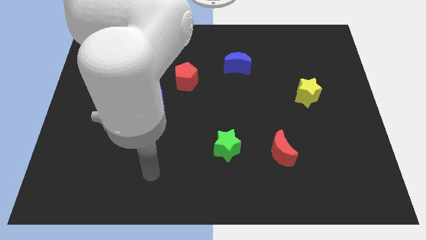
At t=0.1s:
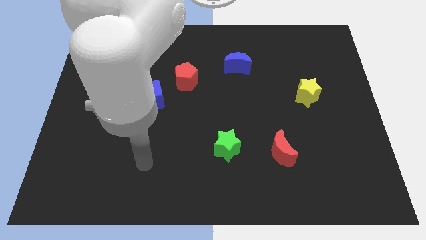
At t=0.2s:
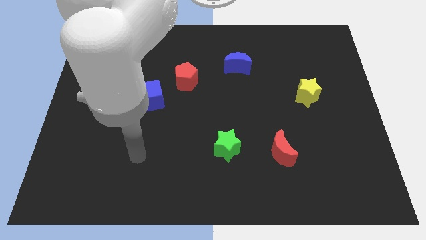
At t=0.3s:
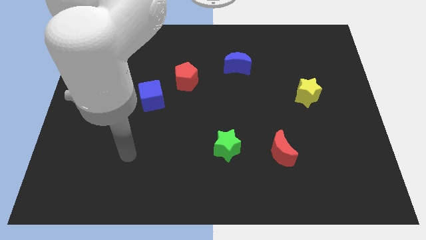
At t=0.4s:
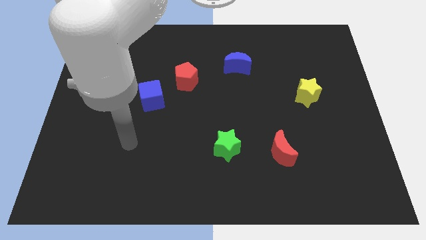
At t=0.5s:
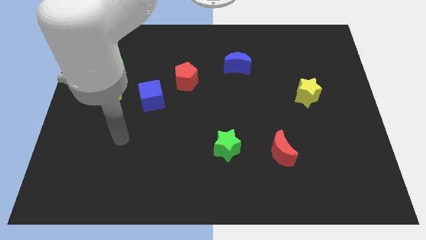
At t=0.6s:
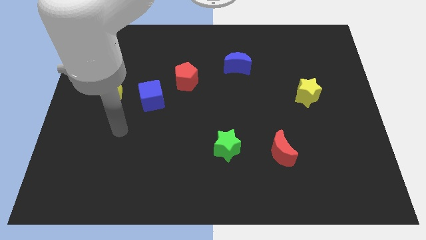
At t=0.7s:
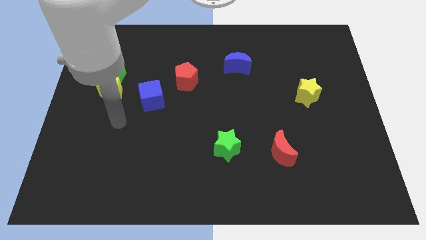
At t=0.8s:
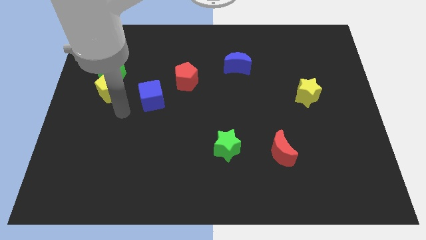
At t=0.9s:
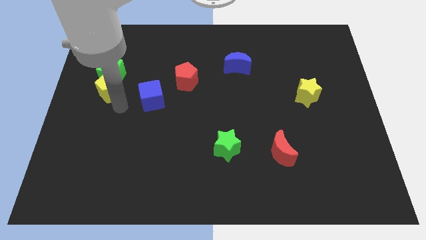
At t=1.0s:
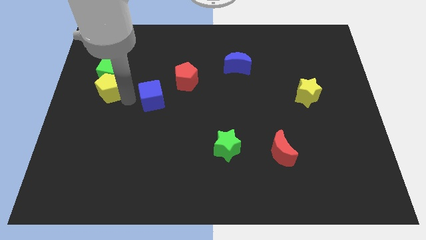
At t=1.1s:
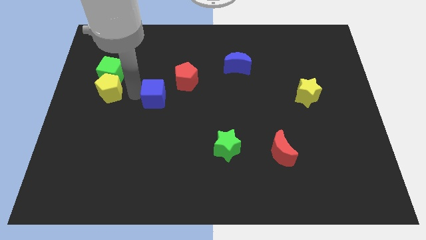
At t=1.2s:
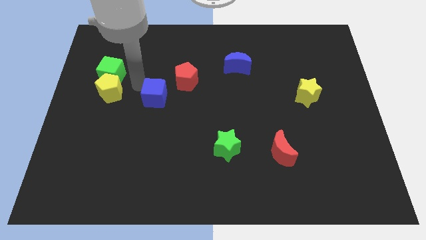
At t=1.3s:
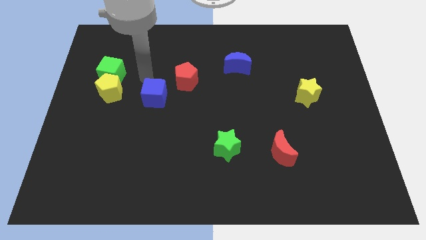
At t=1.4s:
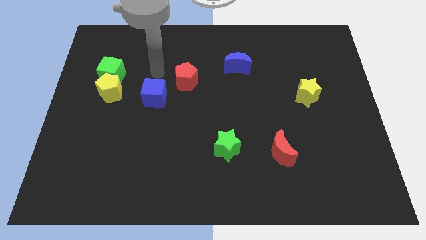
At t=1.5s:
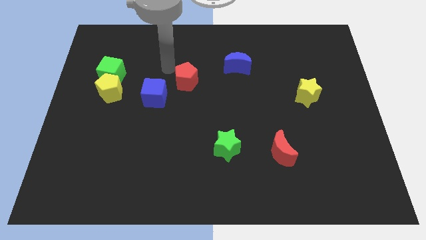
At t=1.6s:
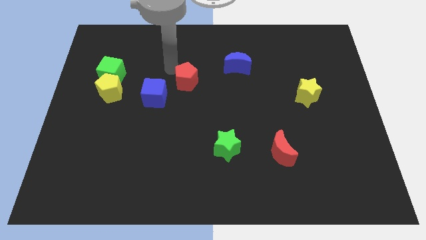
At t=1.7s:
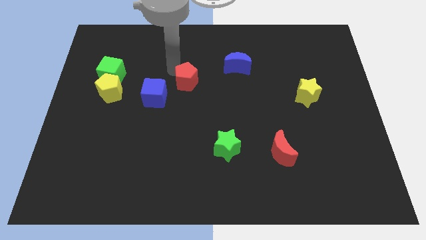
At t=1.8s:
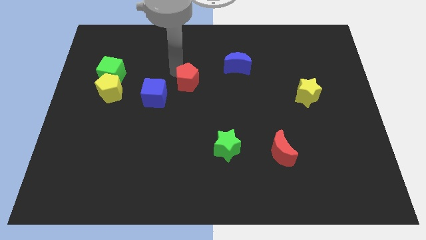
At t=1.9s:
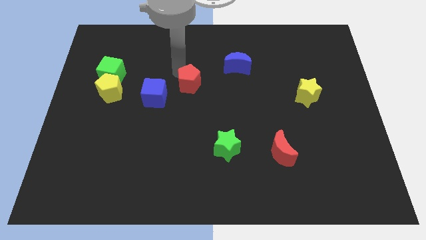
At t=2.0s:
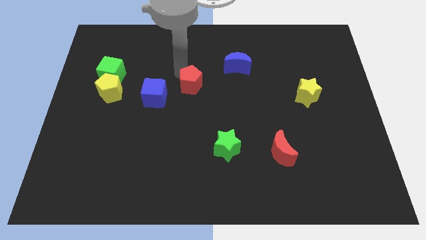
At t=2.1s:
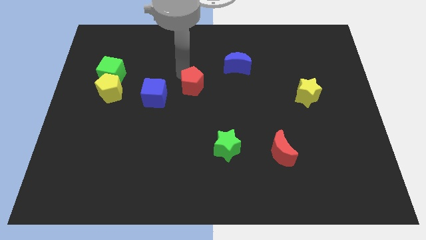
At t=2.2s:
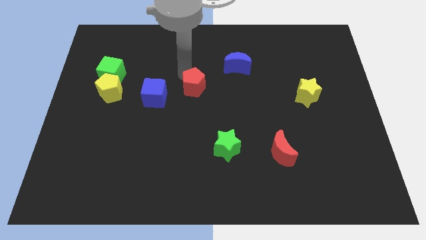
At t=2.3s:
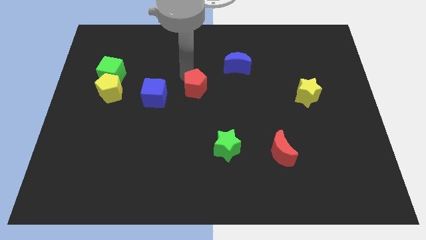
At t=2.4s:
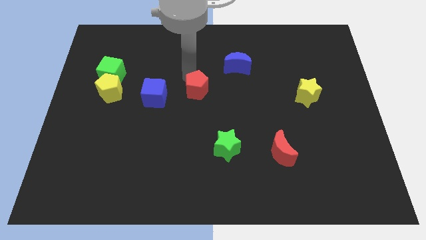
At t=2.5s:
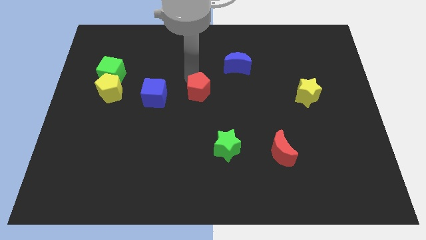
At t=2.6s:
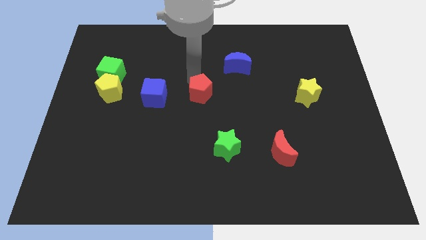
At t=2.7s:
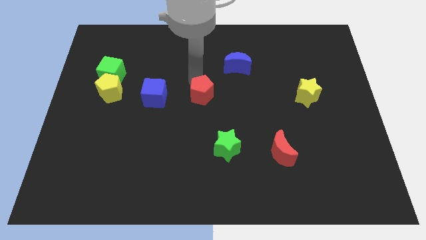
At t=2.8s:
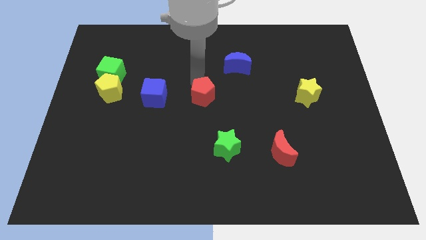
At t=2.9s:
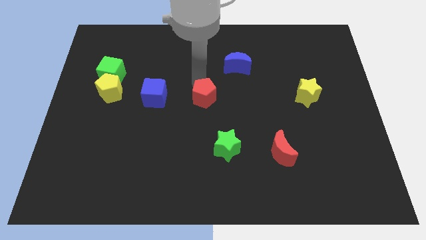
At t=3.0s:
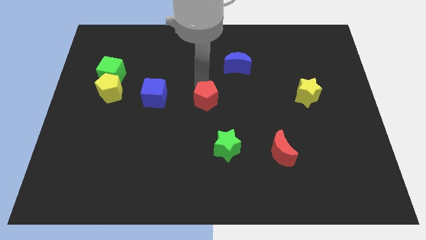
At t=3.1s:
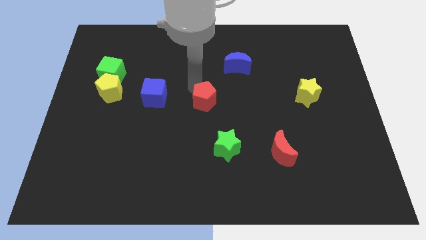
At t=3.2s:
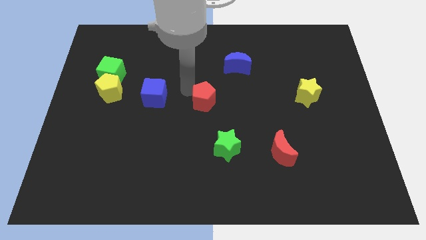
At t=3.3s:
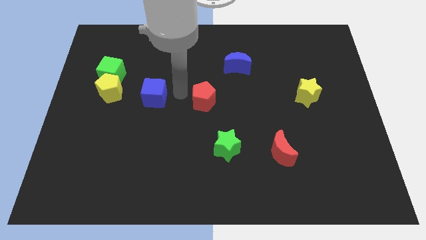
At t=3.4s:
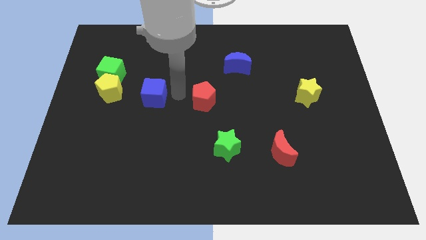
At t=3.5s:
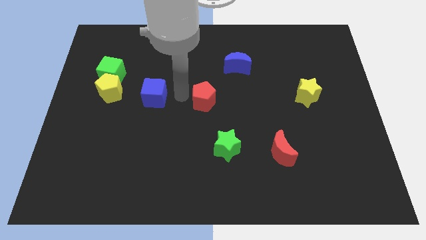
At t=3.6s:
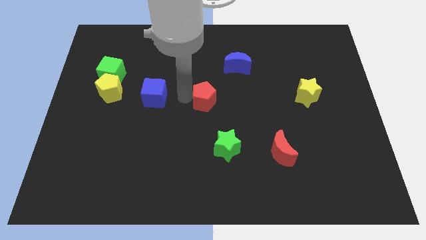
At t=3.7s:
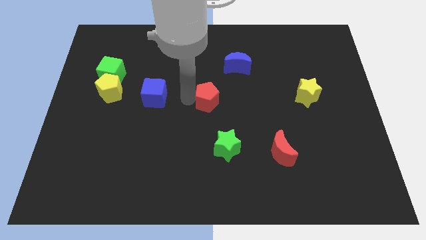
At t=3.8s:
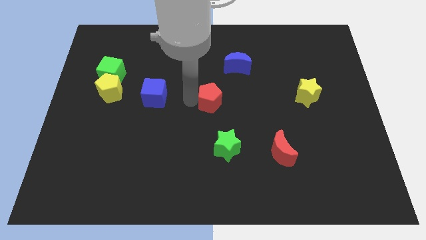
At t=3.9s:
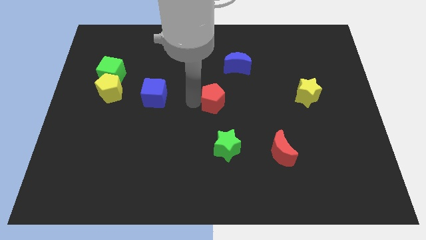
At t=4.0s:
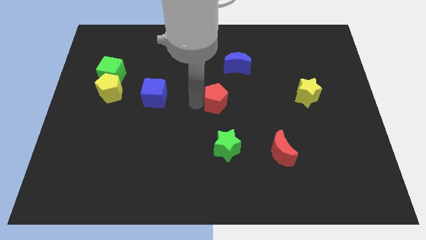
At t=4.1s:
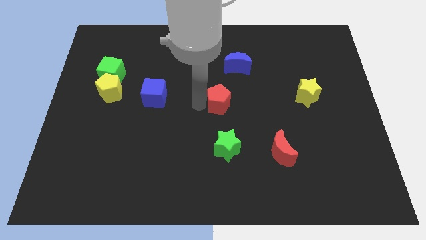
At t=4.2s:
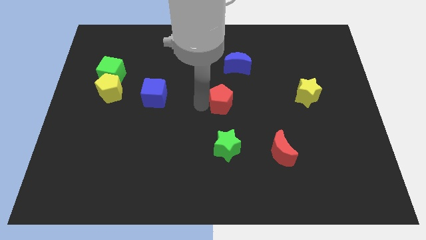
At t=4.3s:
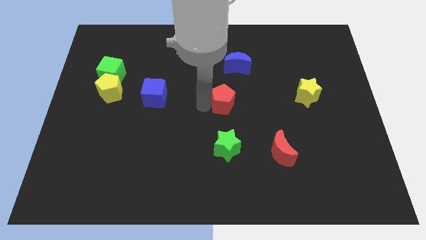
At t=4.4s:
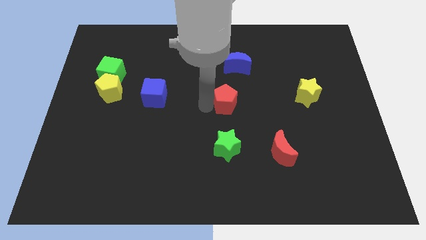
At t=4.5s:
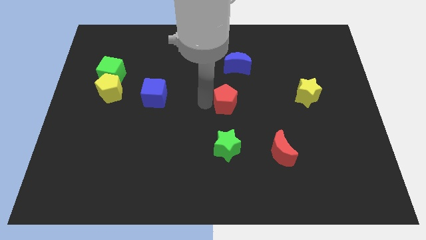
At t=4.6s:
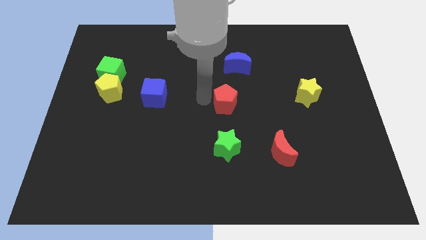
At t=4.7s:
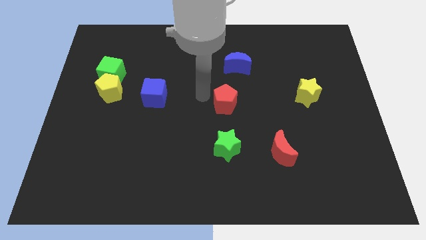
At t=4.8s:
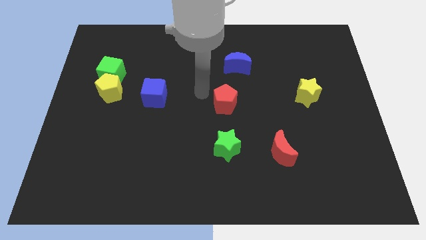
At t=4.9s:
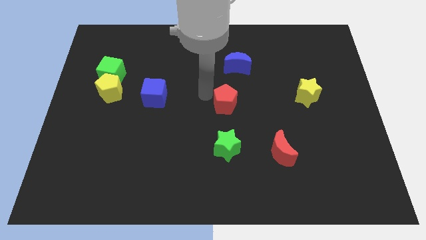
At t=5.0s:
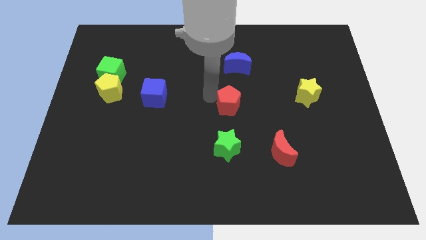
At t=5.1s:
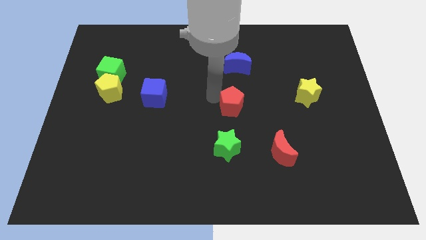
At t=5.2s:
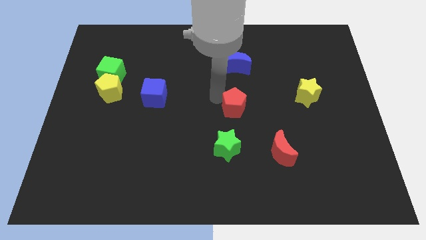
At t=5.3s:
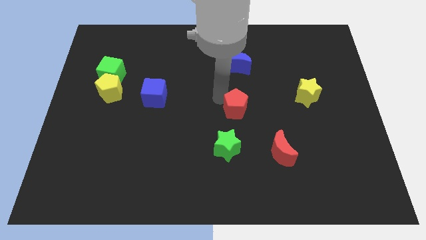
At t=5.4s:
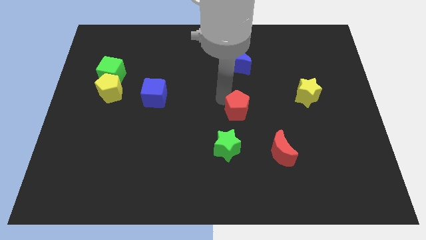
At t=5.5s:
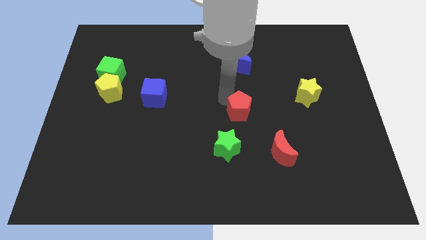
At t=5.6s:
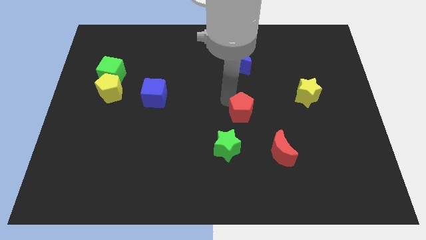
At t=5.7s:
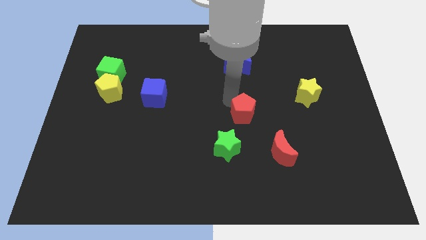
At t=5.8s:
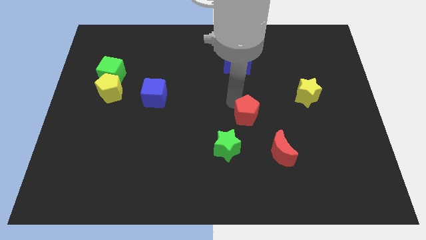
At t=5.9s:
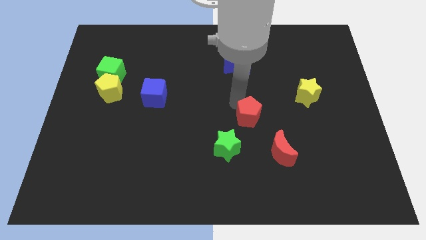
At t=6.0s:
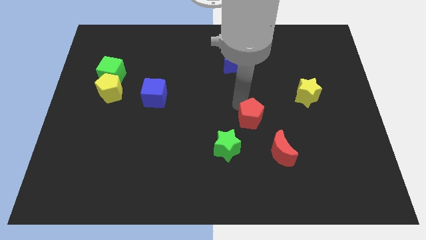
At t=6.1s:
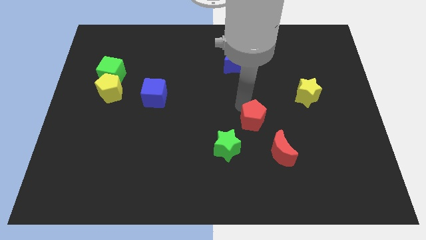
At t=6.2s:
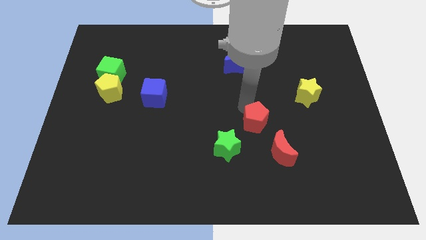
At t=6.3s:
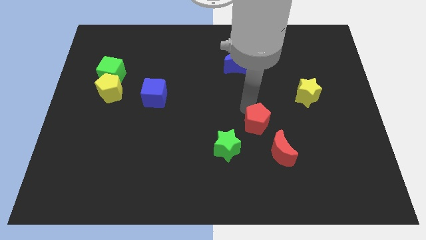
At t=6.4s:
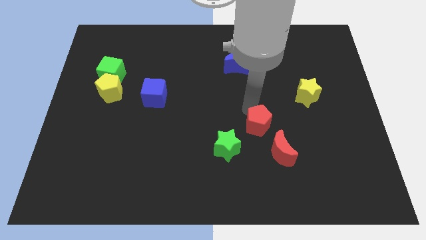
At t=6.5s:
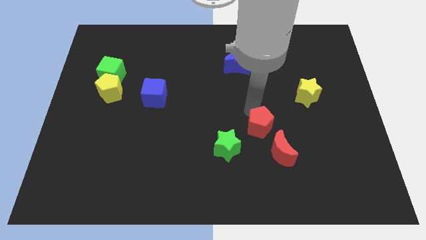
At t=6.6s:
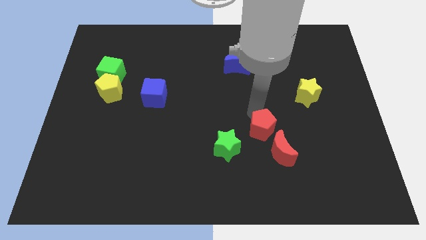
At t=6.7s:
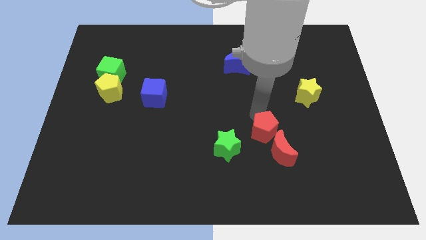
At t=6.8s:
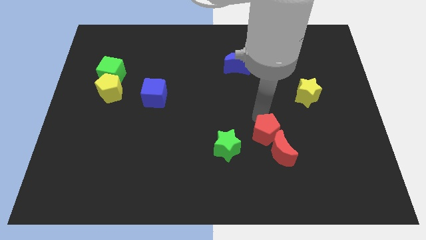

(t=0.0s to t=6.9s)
slide the red pentagon close to the red moon
